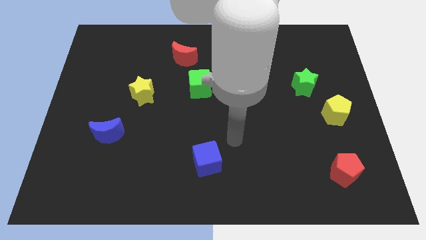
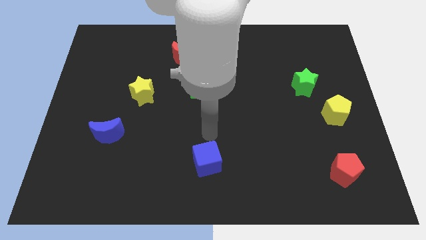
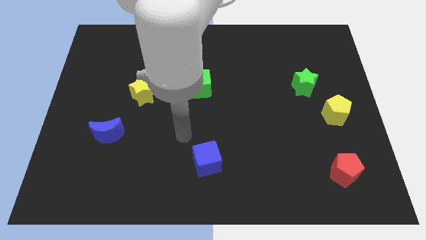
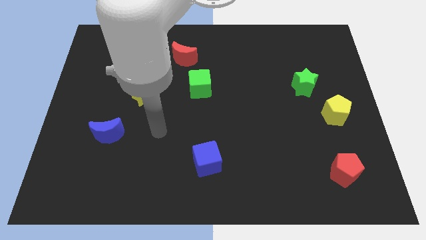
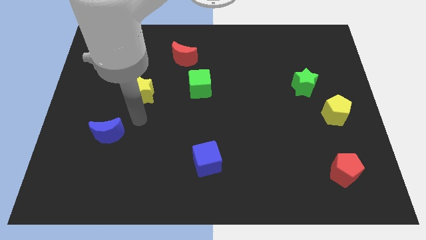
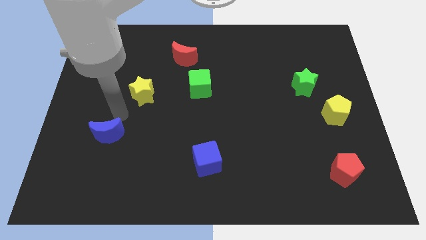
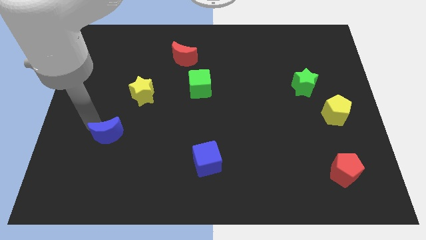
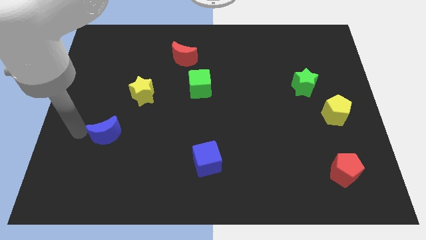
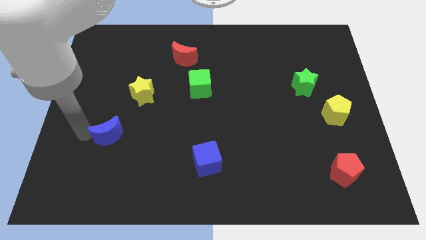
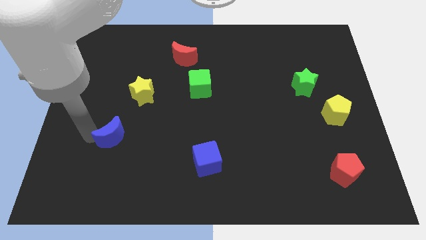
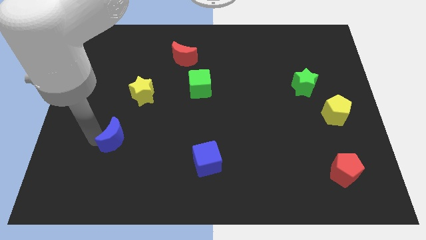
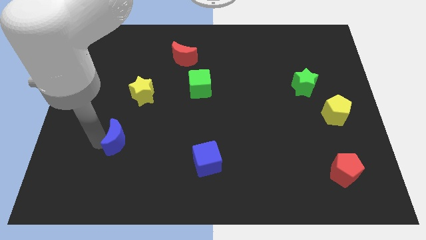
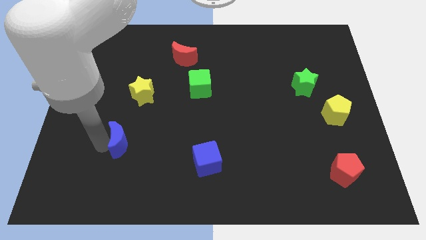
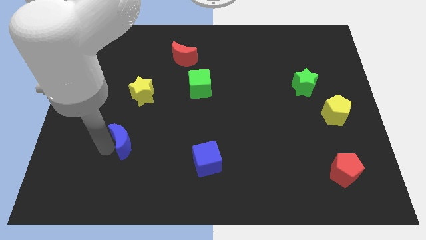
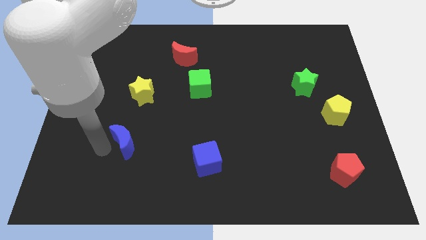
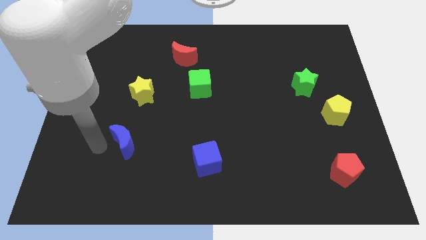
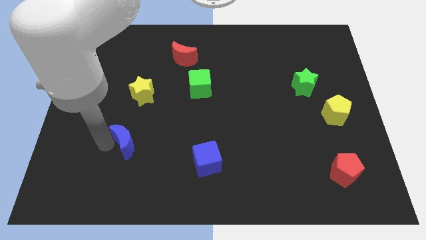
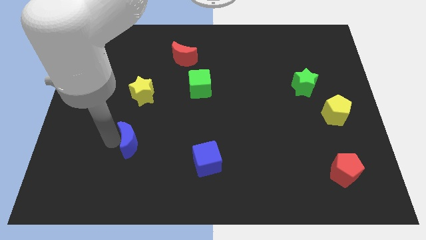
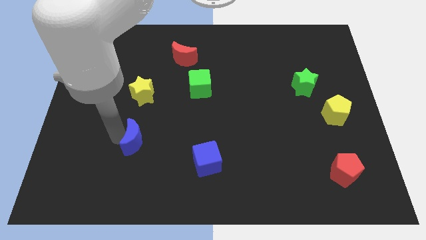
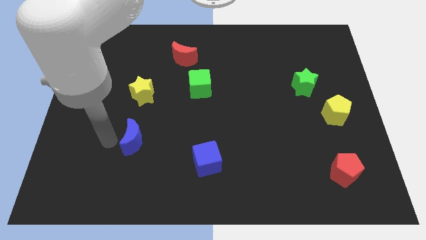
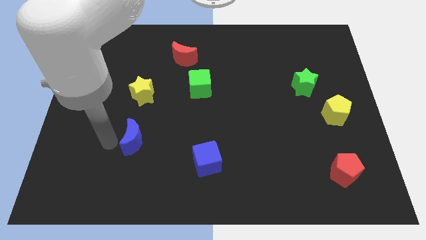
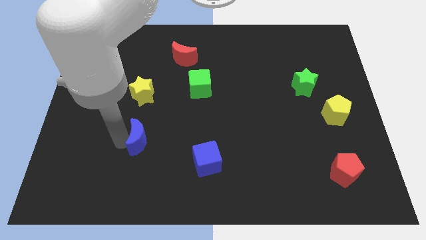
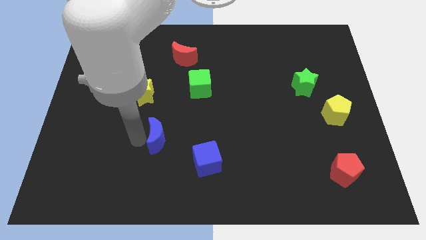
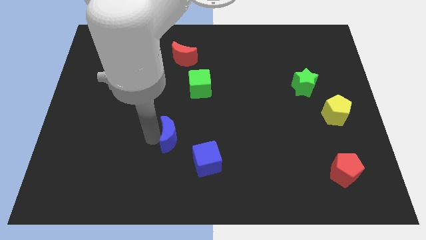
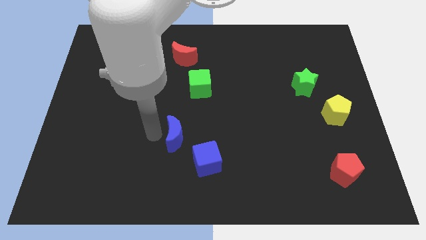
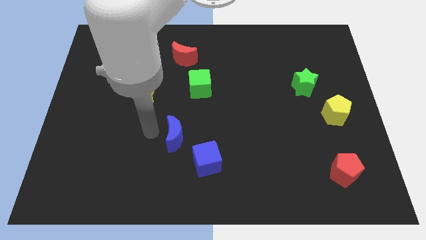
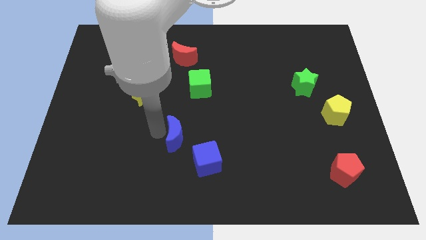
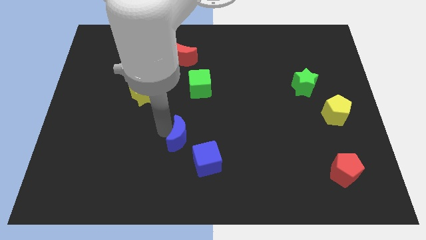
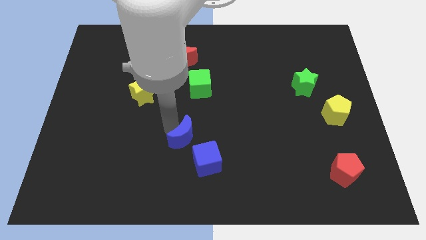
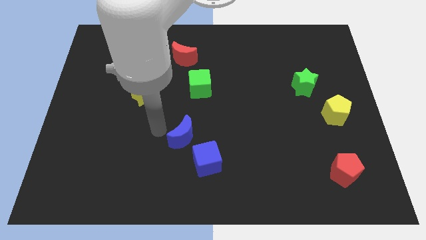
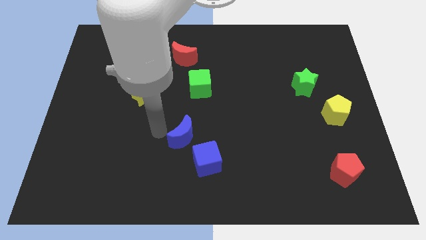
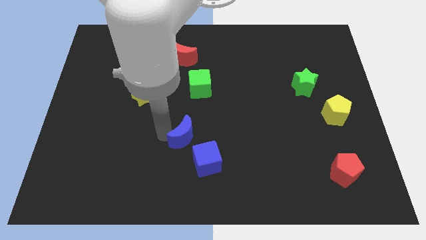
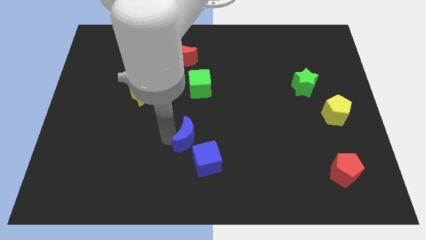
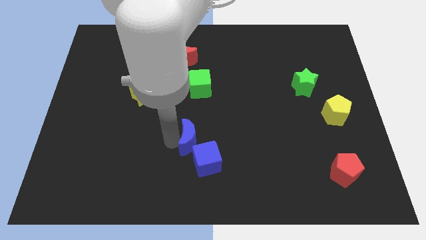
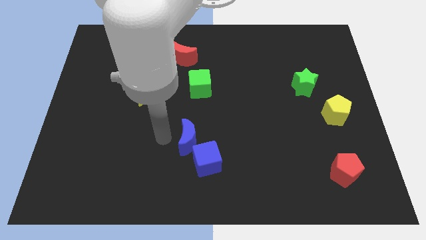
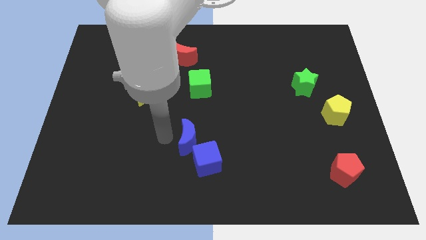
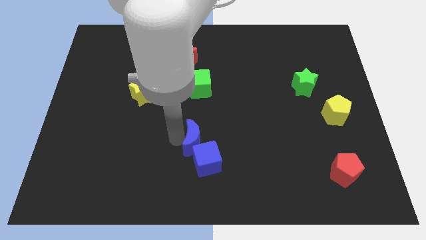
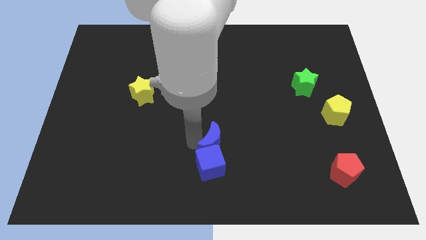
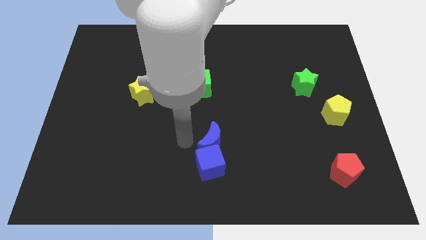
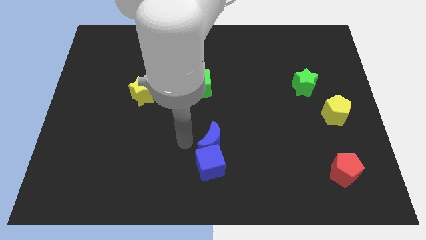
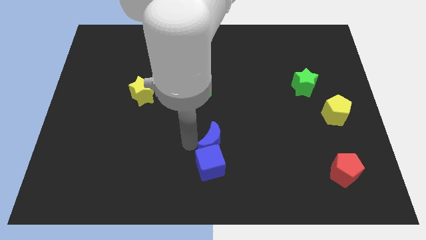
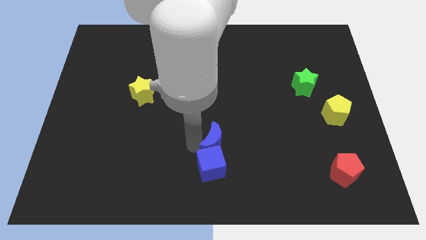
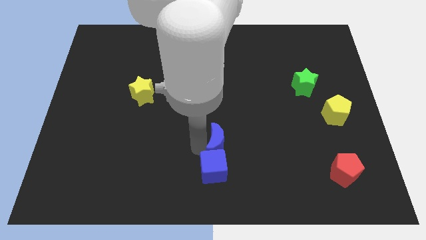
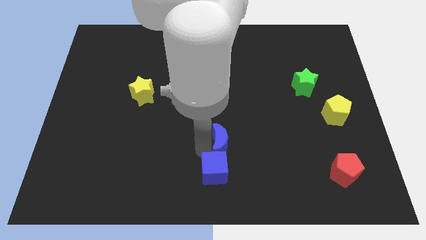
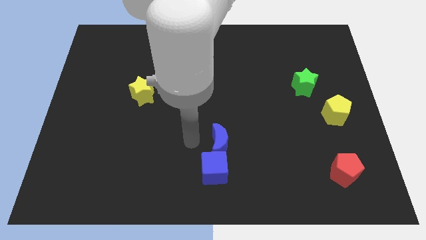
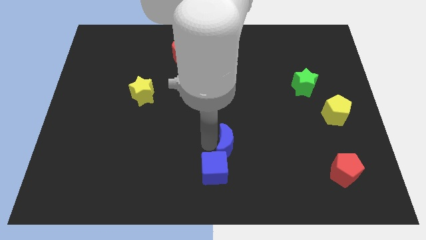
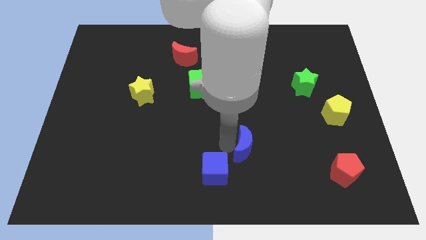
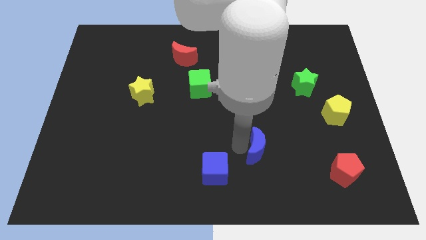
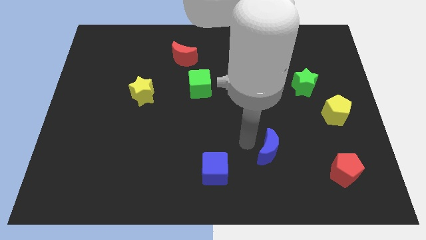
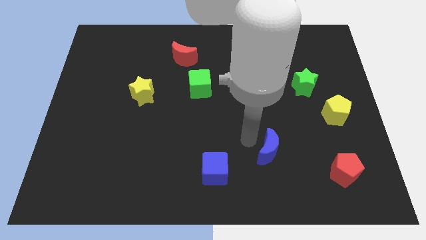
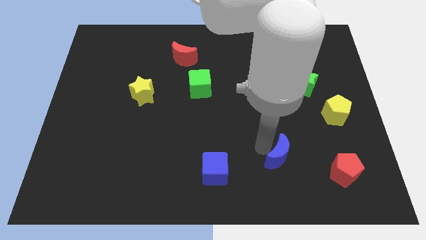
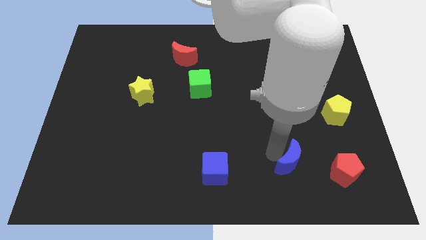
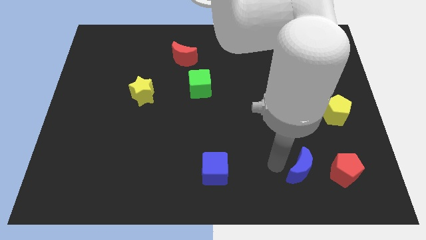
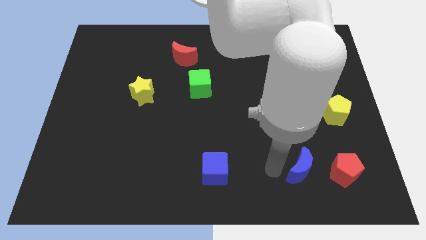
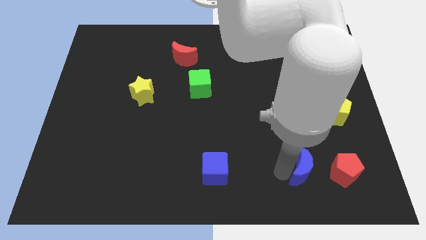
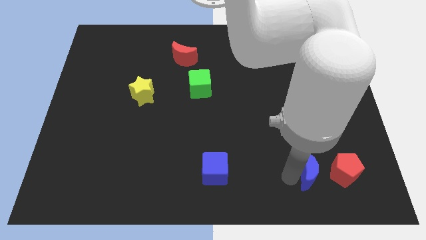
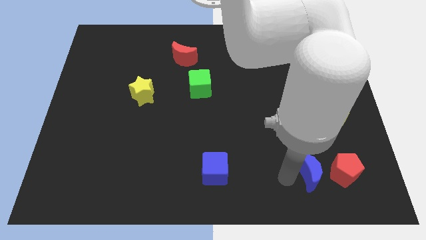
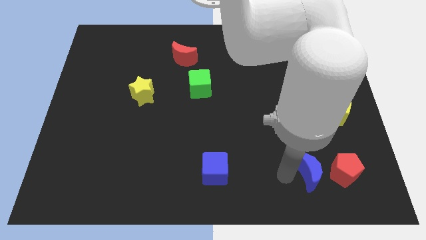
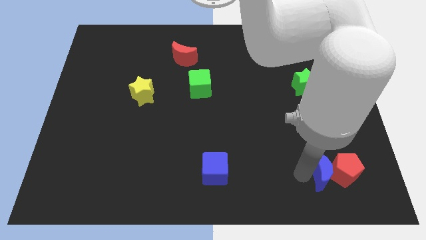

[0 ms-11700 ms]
push the blue moon to the red pentagon
